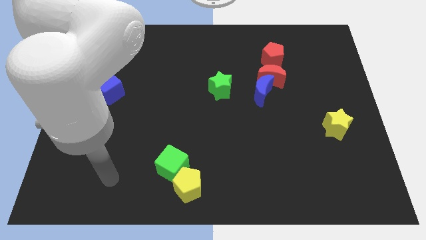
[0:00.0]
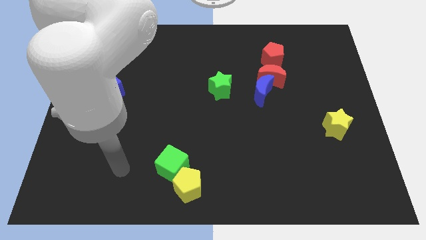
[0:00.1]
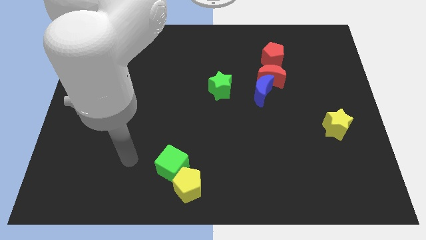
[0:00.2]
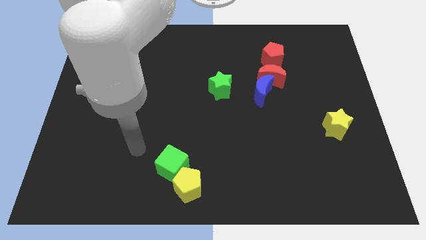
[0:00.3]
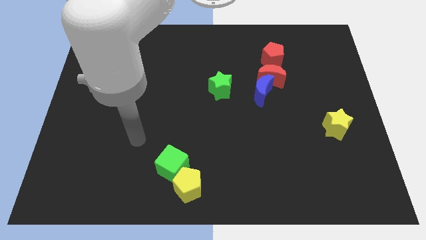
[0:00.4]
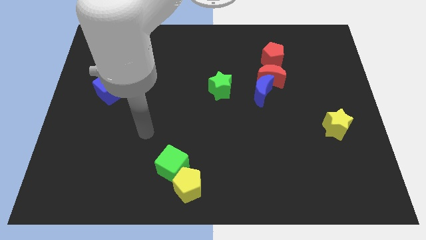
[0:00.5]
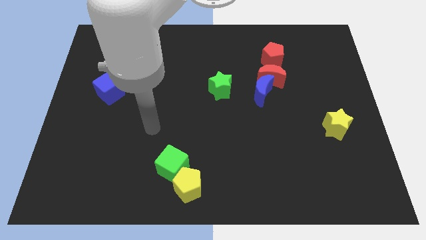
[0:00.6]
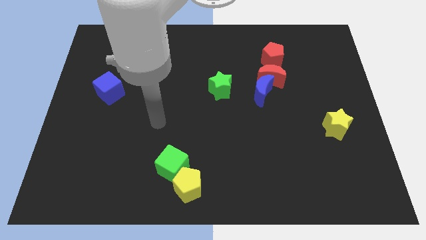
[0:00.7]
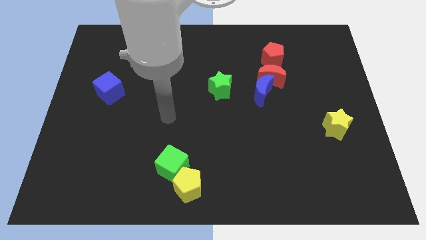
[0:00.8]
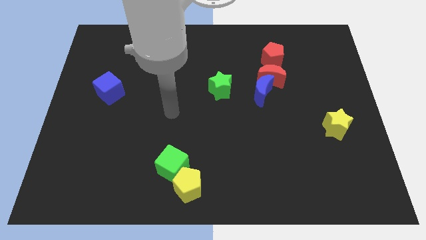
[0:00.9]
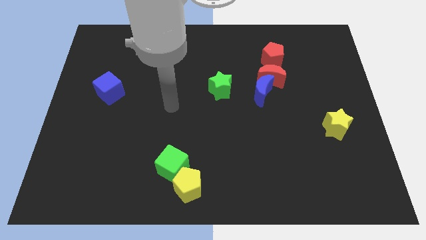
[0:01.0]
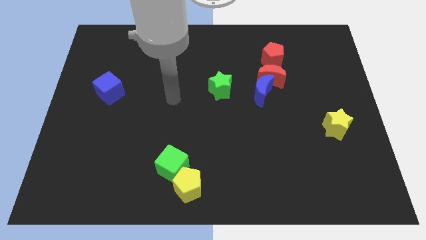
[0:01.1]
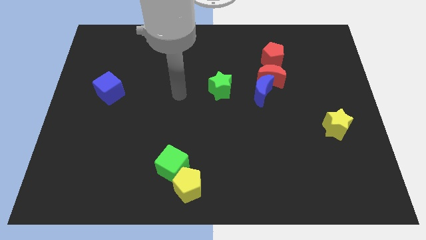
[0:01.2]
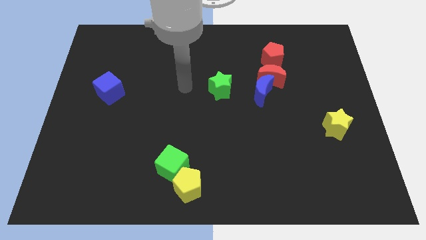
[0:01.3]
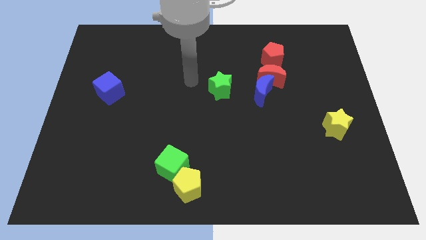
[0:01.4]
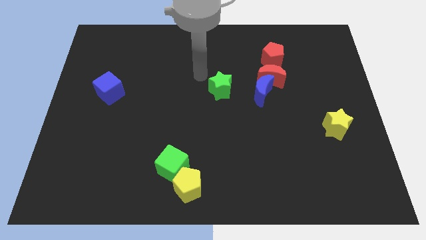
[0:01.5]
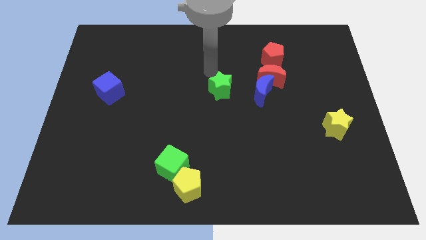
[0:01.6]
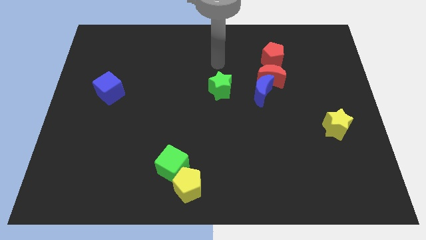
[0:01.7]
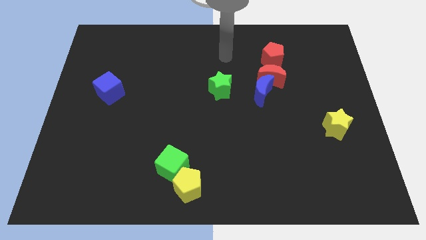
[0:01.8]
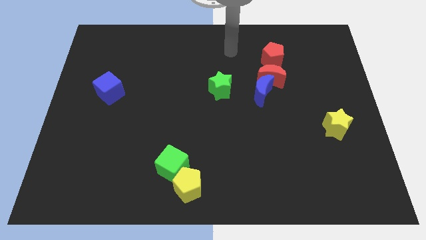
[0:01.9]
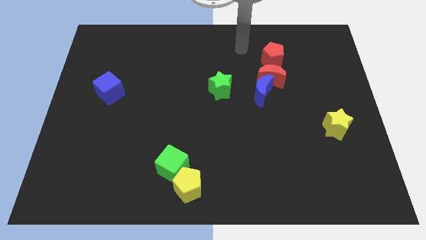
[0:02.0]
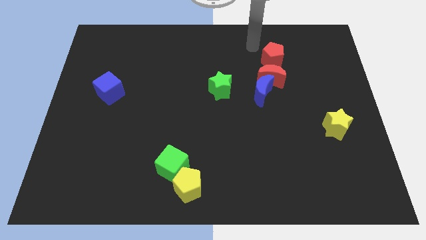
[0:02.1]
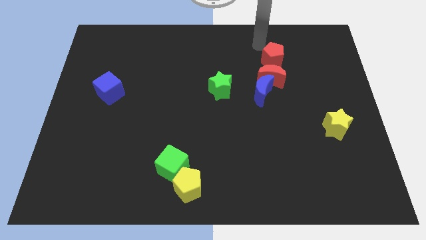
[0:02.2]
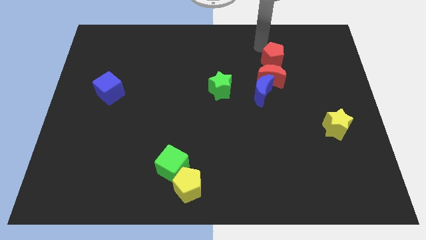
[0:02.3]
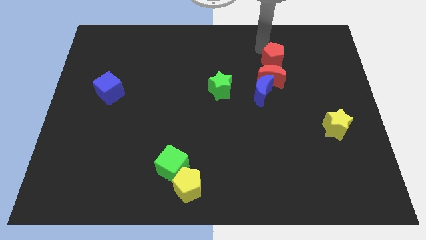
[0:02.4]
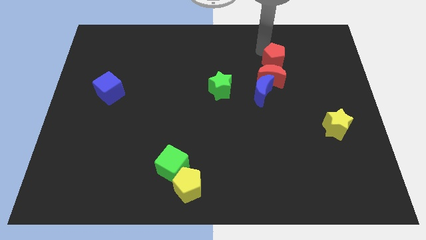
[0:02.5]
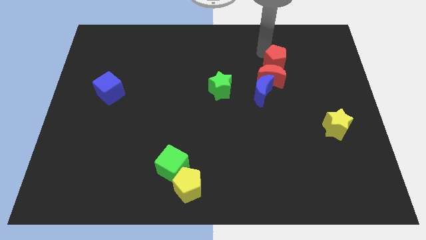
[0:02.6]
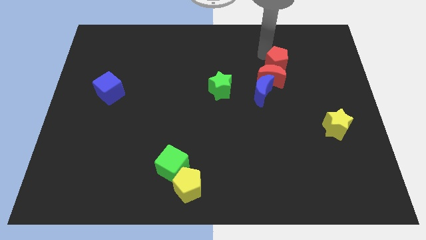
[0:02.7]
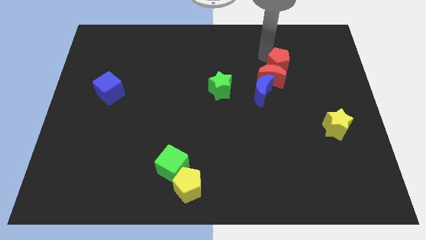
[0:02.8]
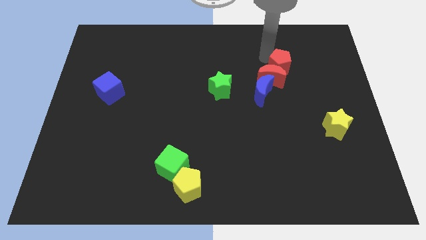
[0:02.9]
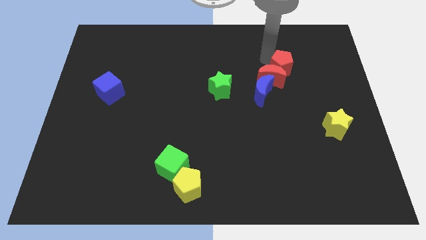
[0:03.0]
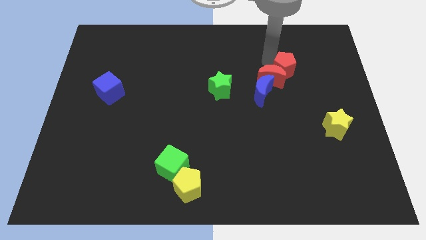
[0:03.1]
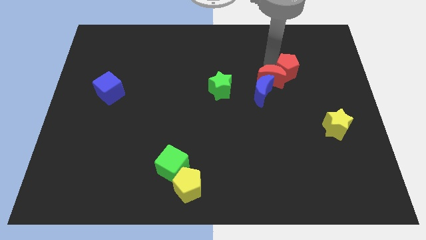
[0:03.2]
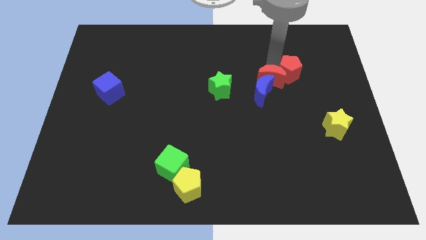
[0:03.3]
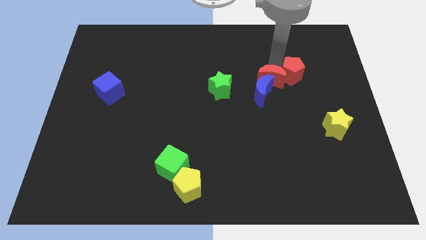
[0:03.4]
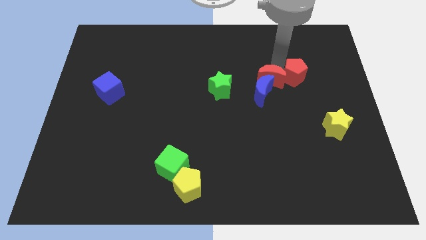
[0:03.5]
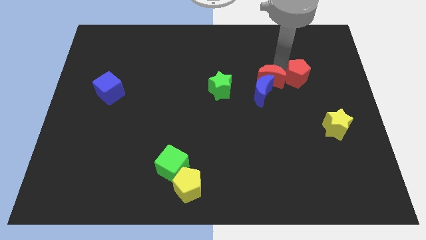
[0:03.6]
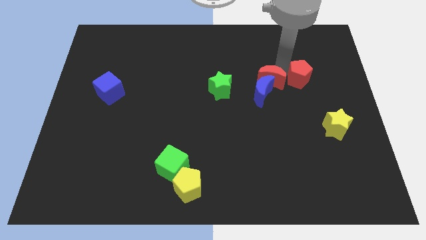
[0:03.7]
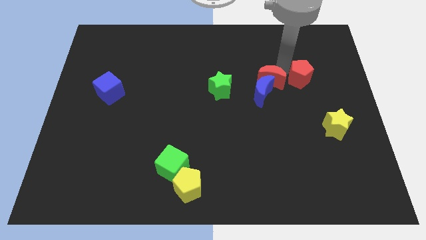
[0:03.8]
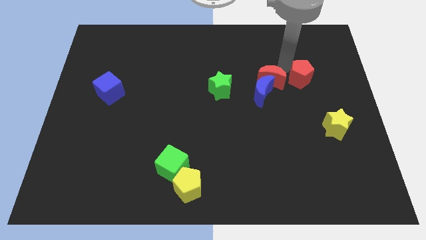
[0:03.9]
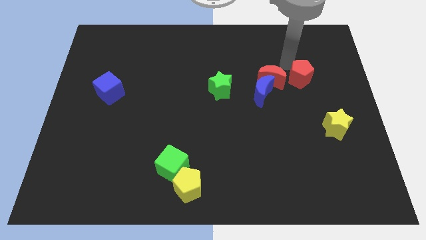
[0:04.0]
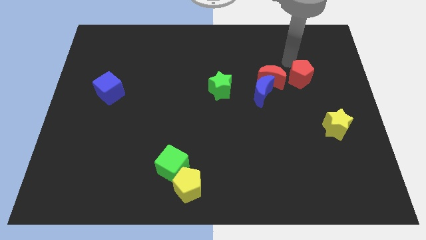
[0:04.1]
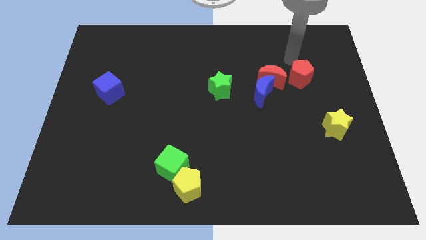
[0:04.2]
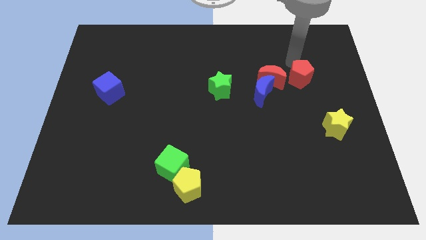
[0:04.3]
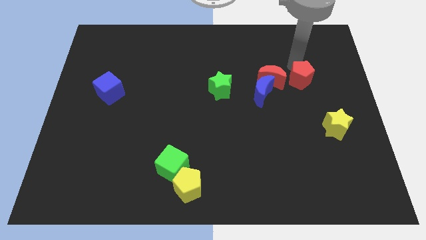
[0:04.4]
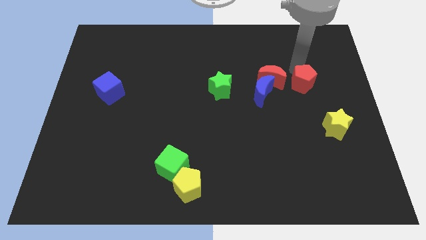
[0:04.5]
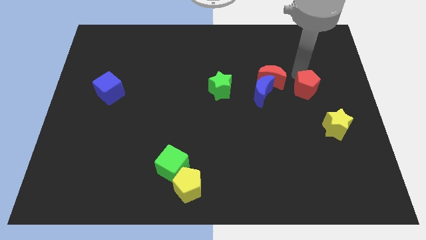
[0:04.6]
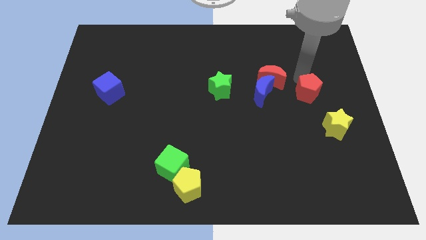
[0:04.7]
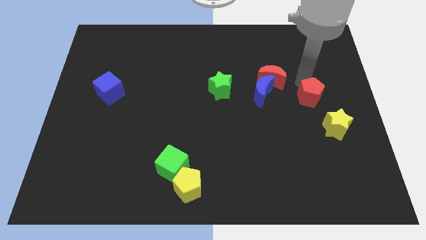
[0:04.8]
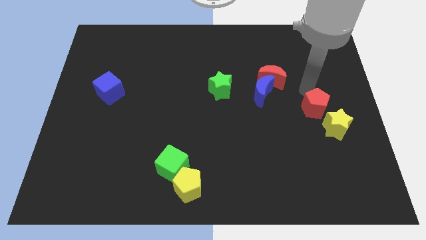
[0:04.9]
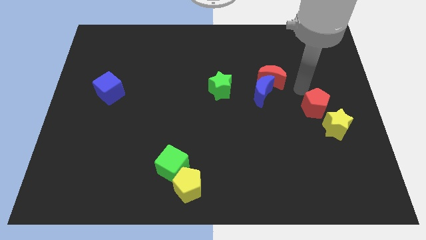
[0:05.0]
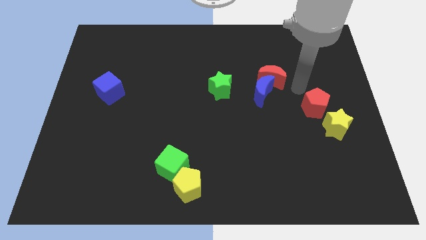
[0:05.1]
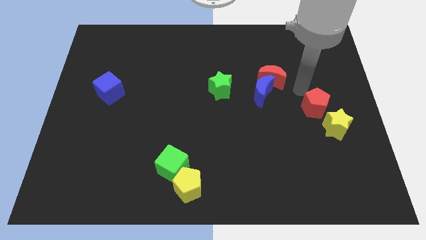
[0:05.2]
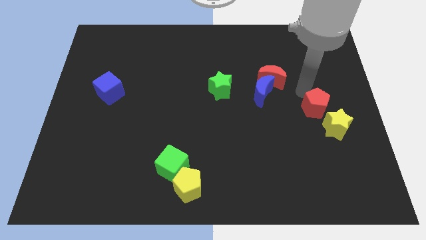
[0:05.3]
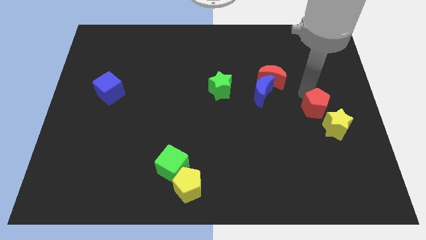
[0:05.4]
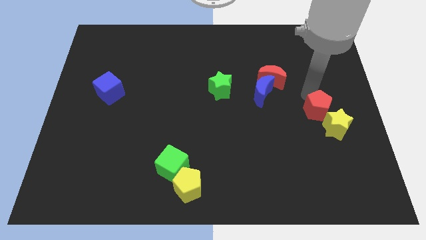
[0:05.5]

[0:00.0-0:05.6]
move the red pentagon towards the yellow star

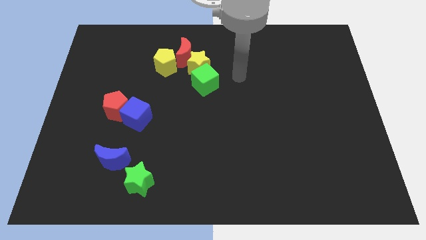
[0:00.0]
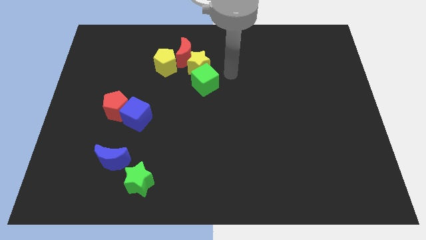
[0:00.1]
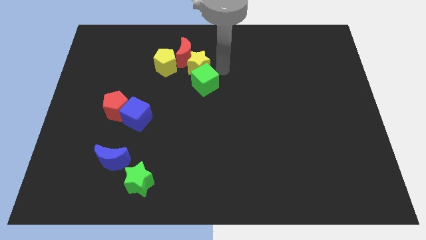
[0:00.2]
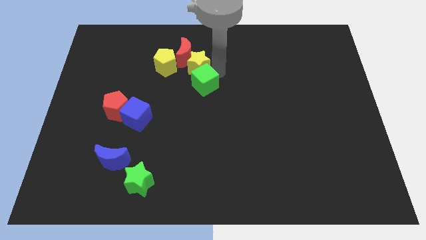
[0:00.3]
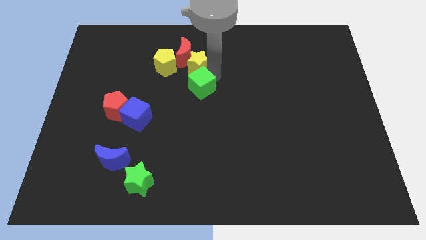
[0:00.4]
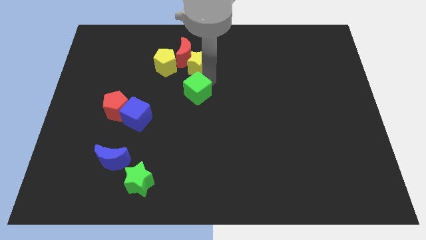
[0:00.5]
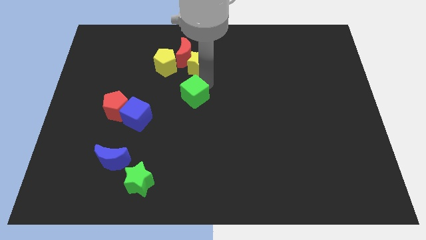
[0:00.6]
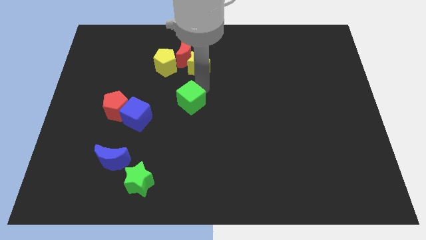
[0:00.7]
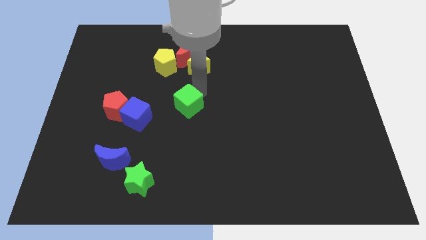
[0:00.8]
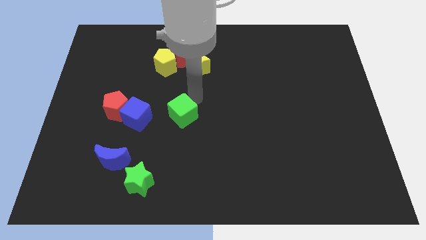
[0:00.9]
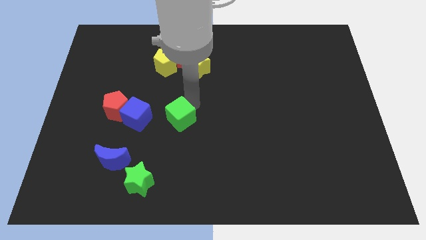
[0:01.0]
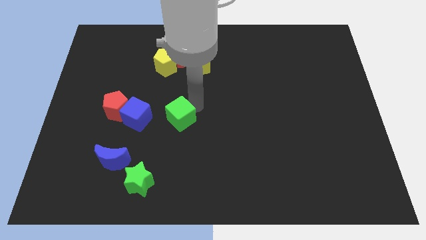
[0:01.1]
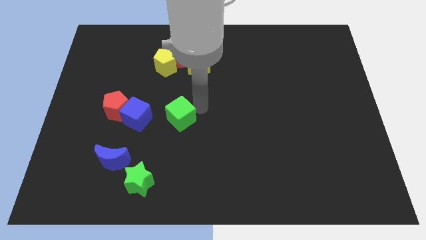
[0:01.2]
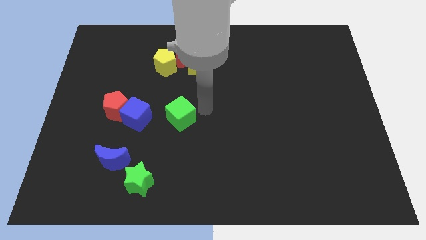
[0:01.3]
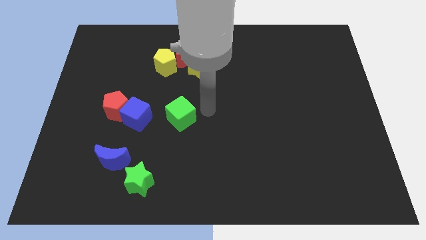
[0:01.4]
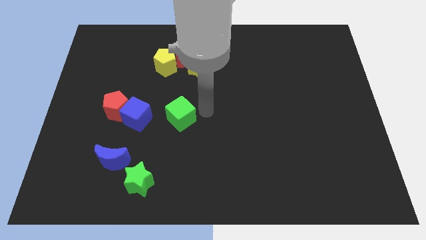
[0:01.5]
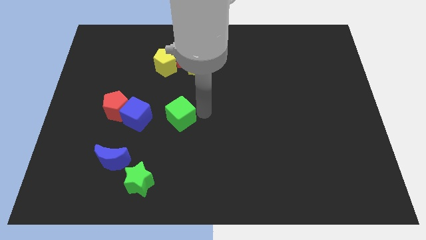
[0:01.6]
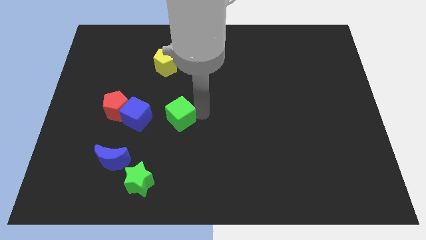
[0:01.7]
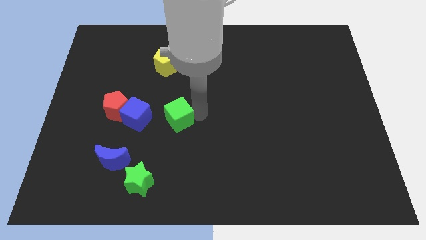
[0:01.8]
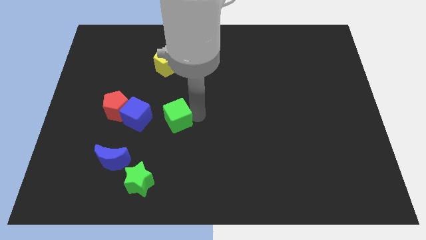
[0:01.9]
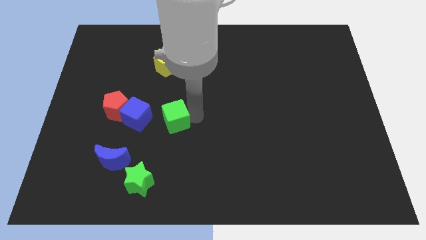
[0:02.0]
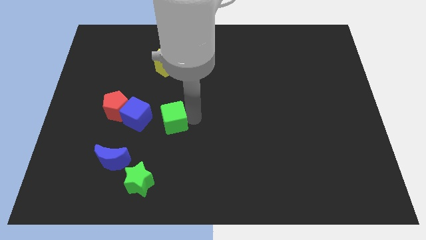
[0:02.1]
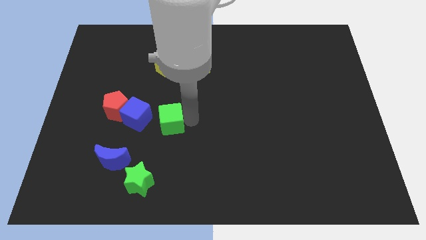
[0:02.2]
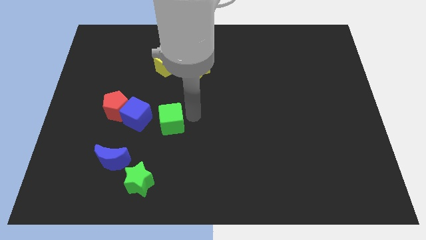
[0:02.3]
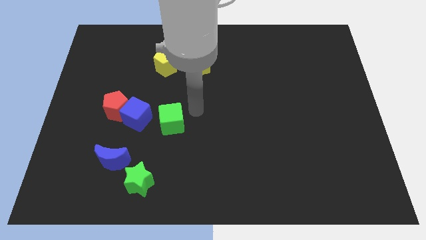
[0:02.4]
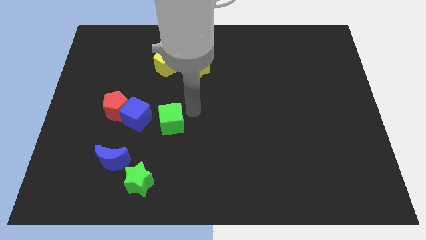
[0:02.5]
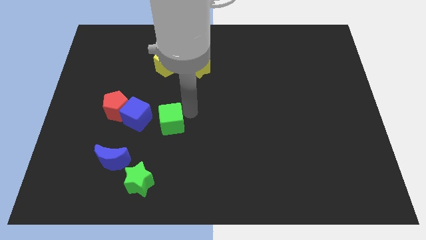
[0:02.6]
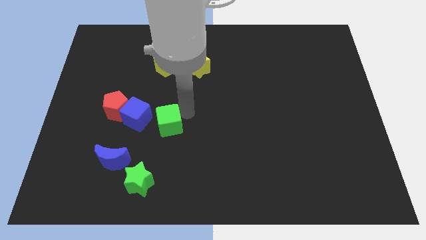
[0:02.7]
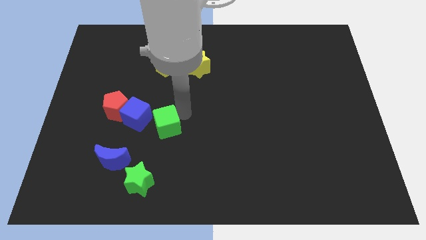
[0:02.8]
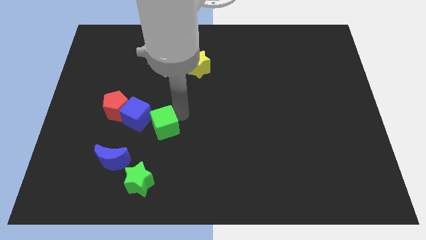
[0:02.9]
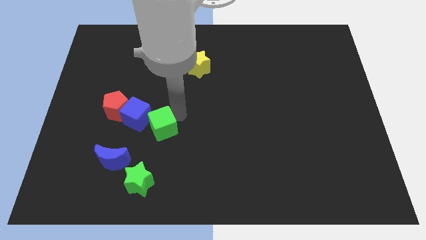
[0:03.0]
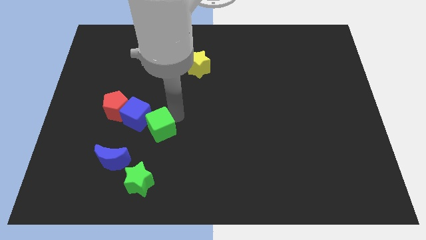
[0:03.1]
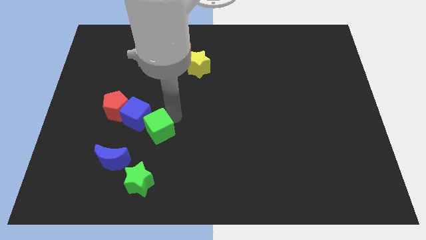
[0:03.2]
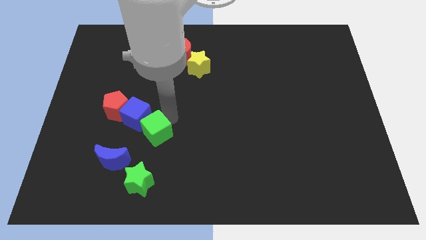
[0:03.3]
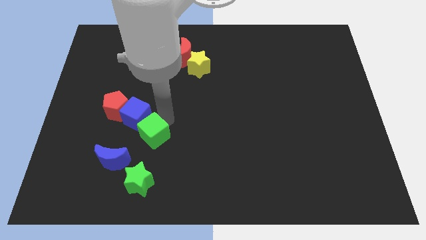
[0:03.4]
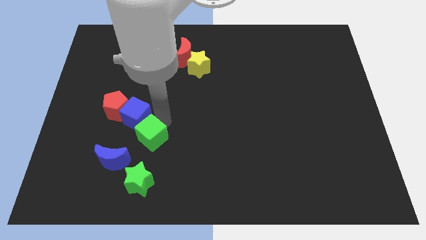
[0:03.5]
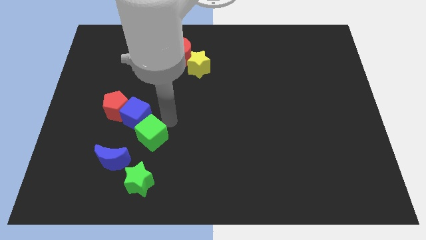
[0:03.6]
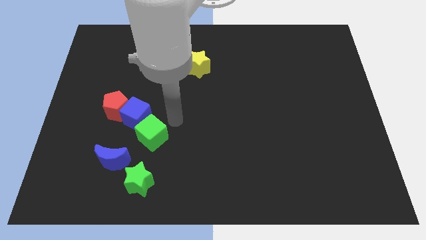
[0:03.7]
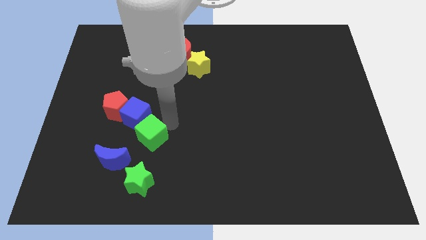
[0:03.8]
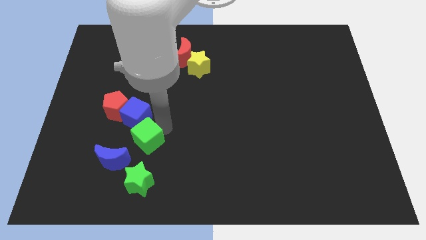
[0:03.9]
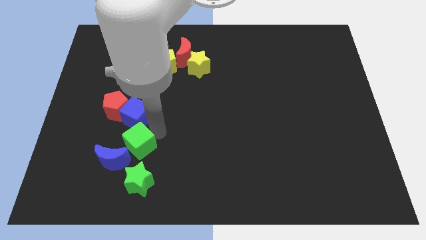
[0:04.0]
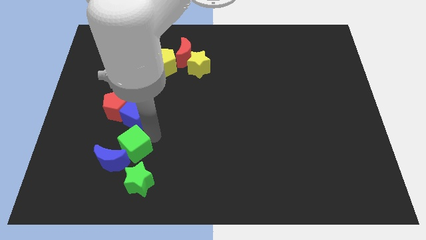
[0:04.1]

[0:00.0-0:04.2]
push the green cube close to the blue moon
